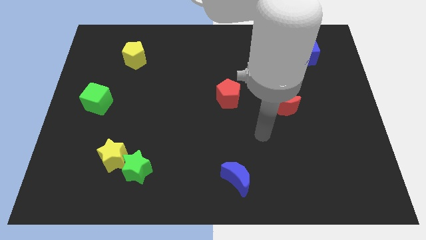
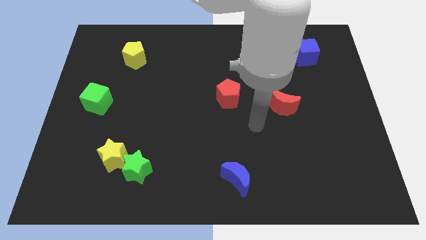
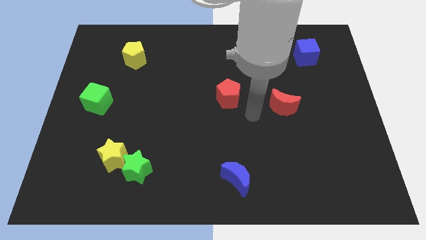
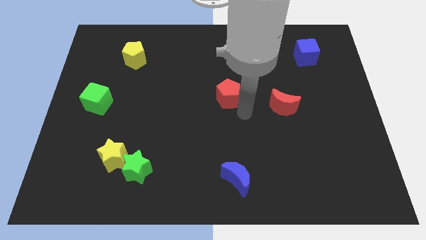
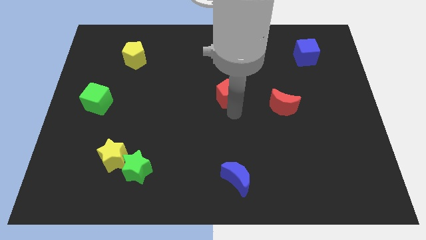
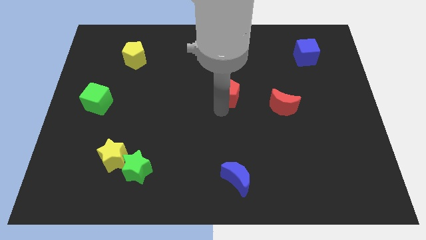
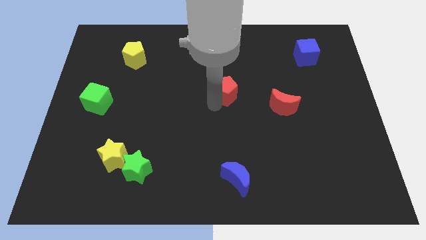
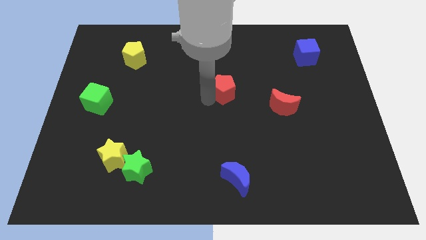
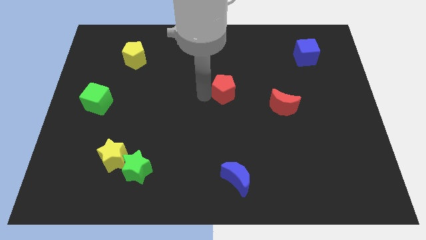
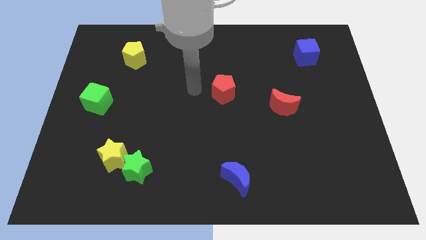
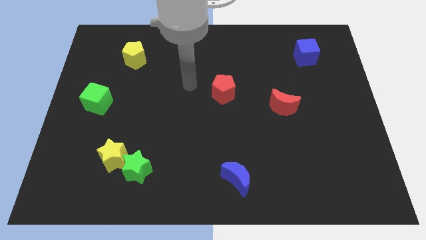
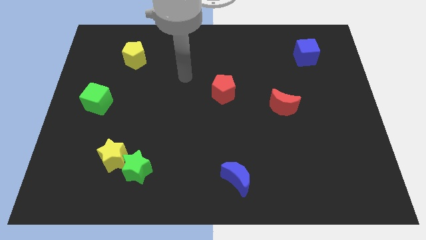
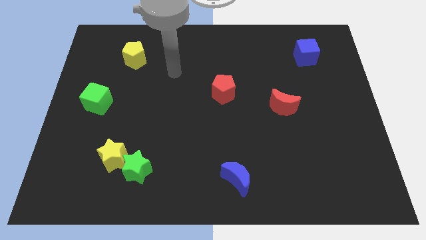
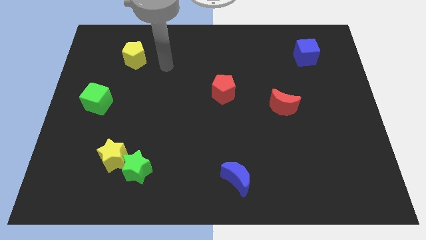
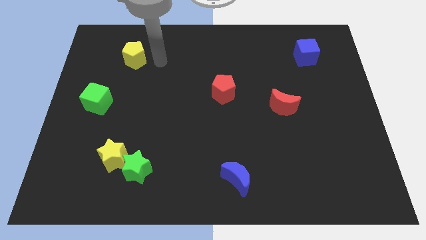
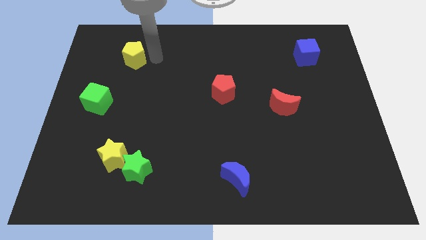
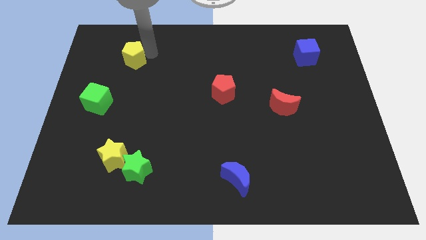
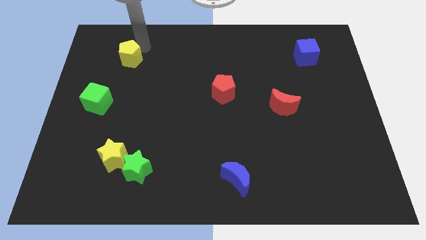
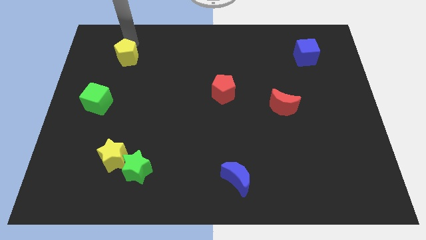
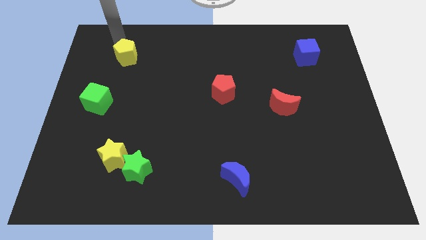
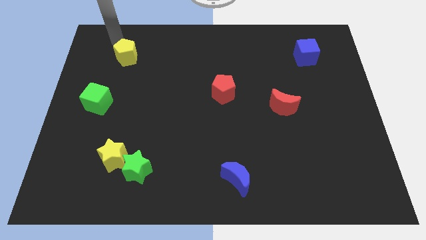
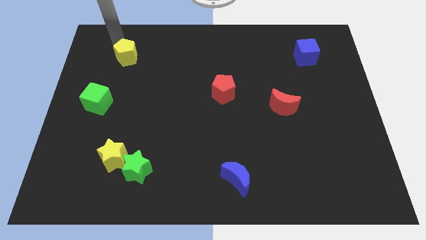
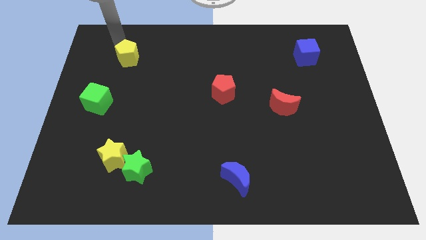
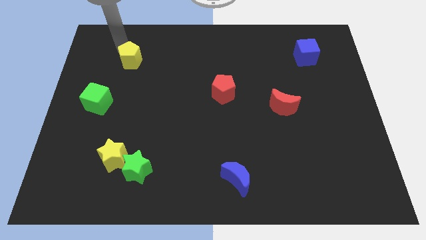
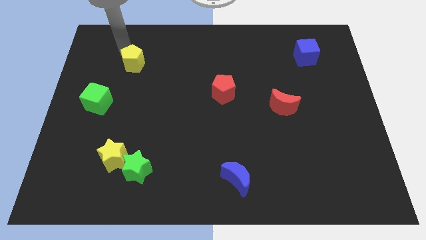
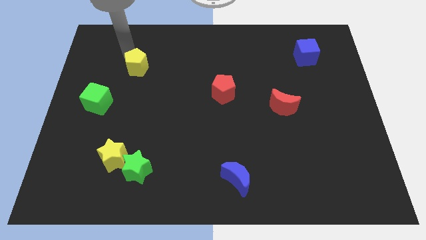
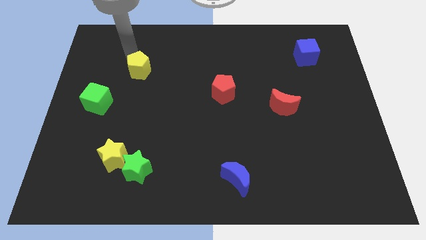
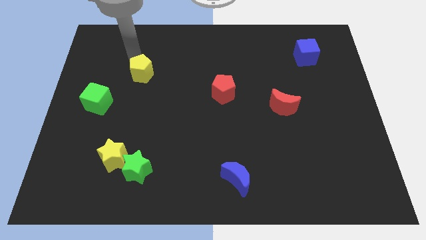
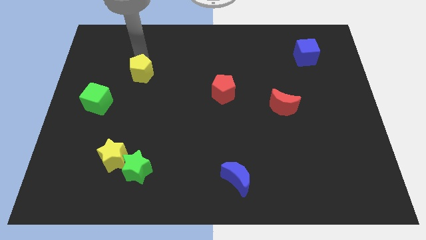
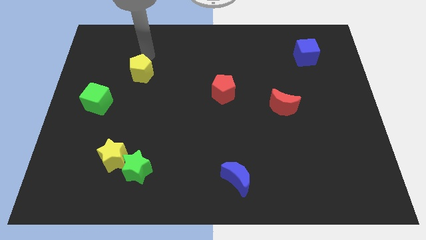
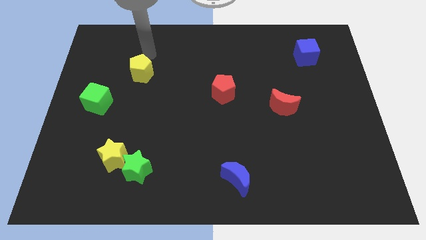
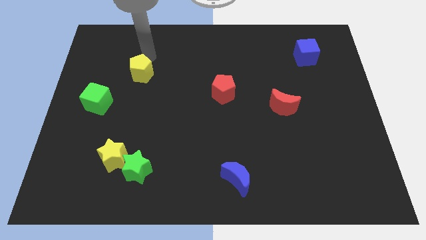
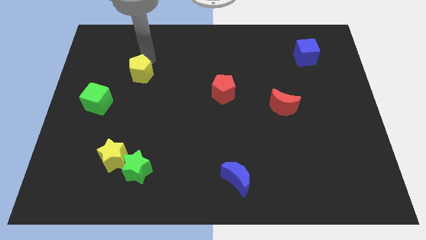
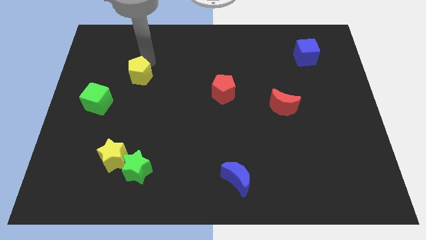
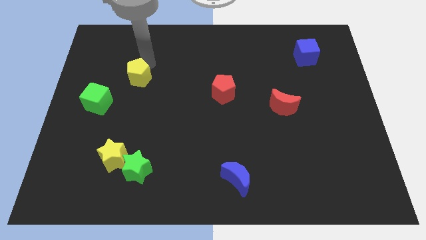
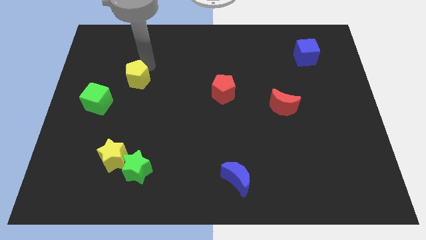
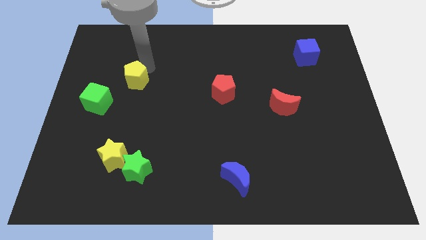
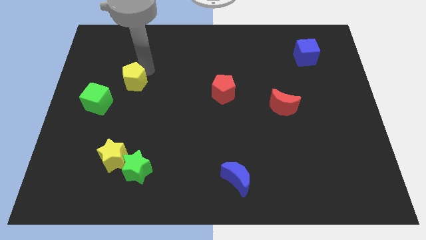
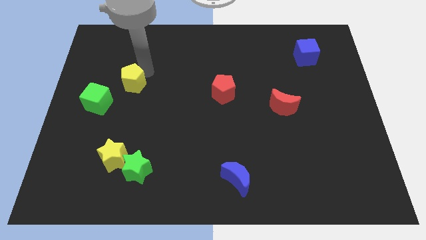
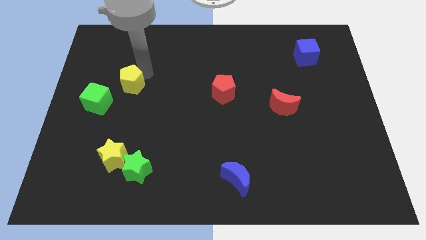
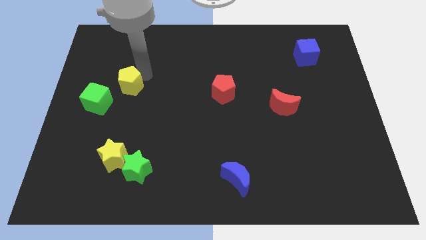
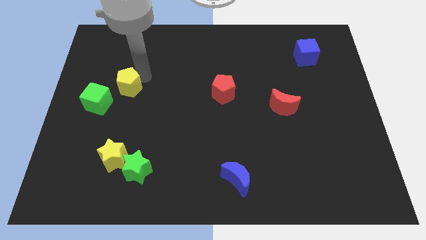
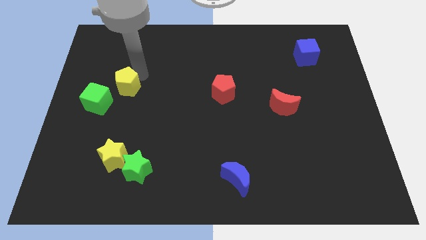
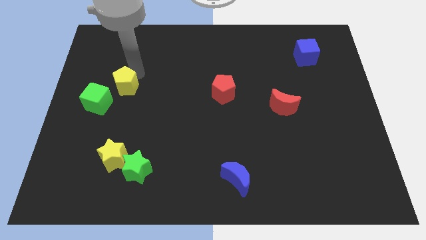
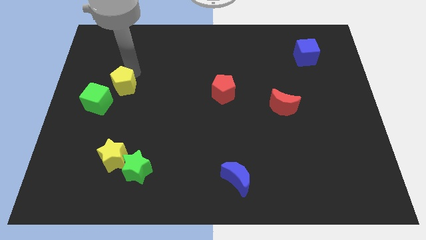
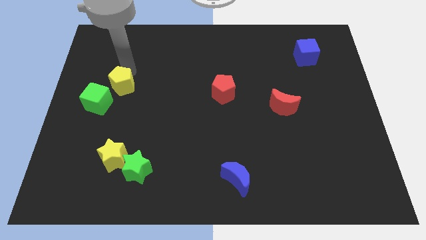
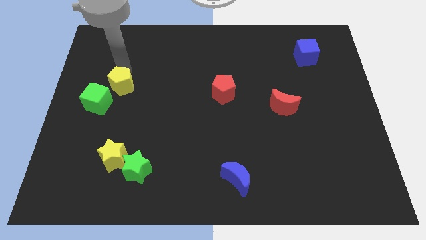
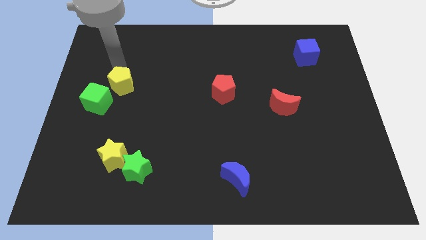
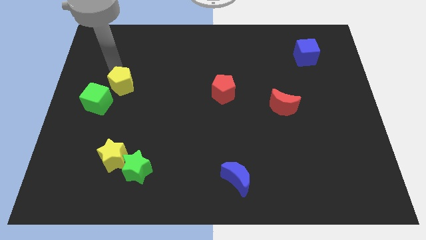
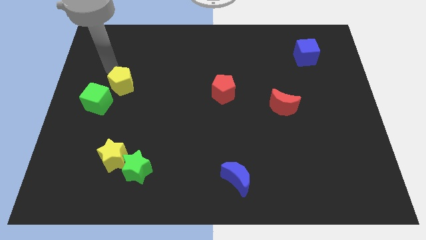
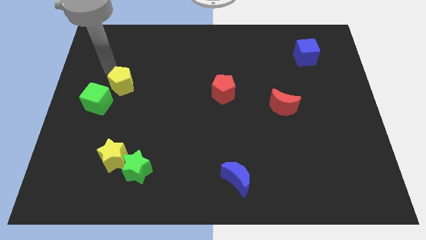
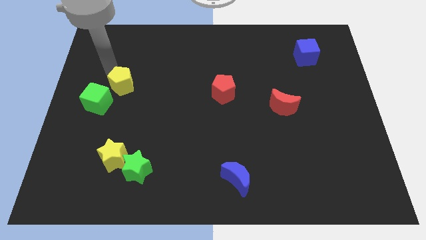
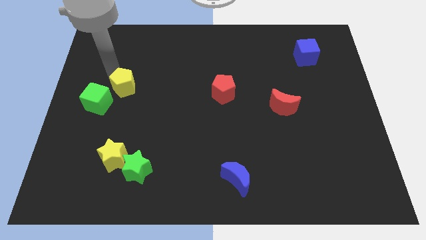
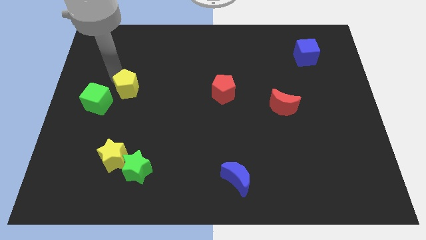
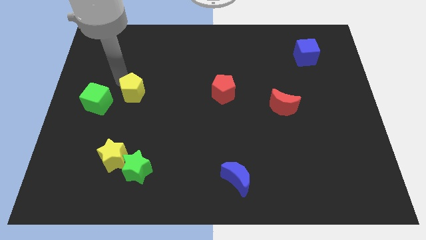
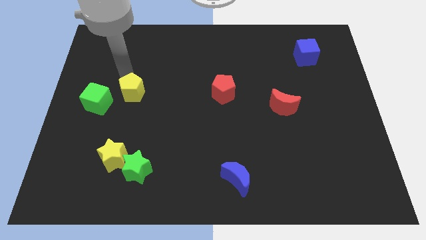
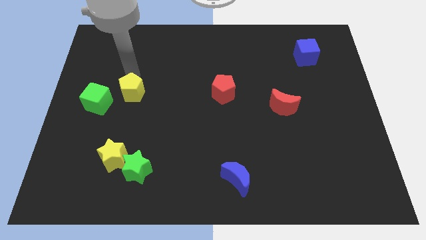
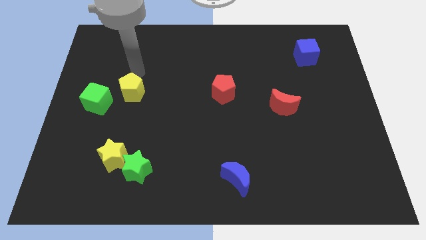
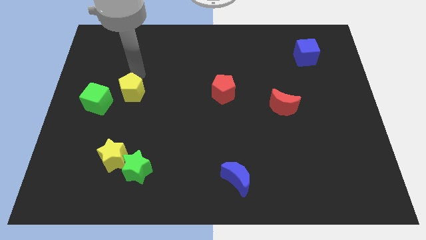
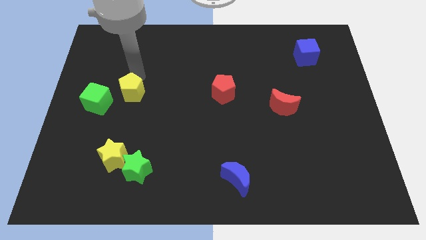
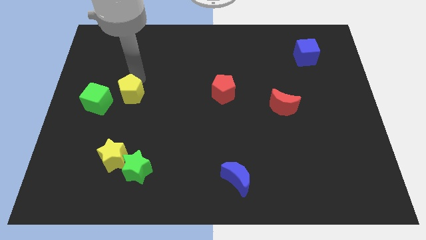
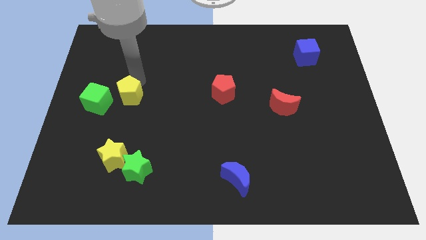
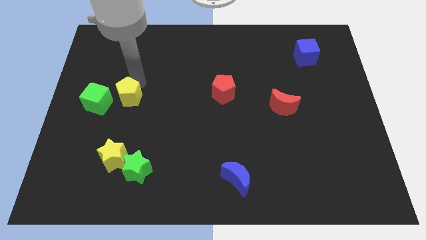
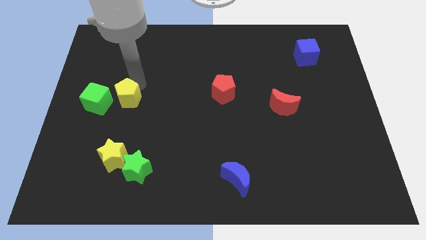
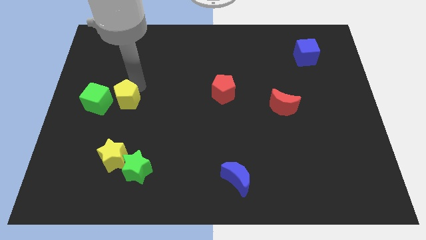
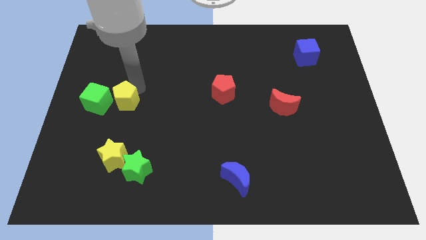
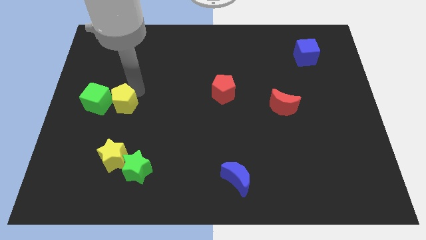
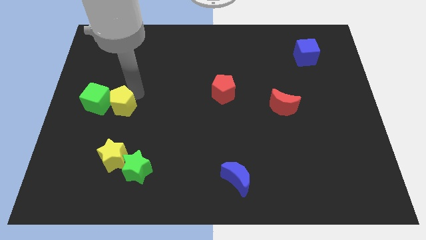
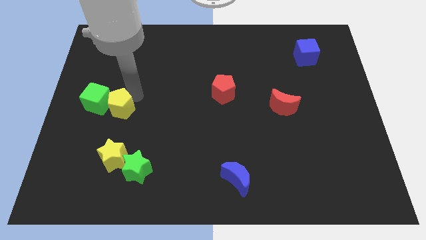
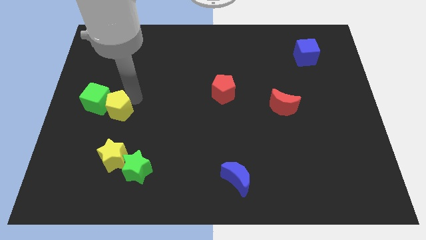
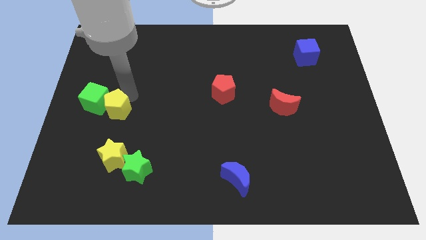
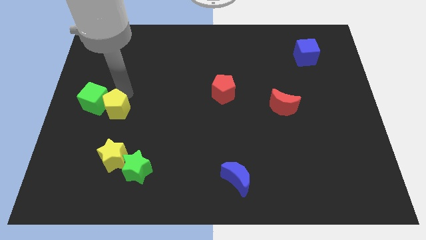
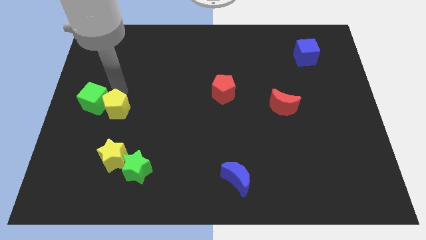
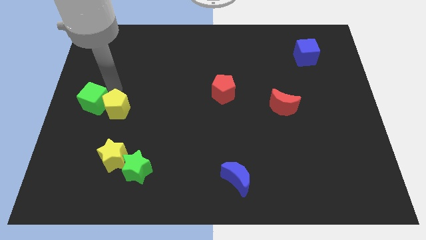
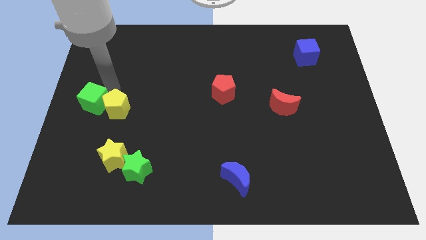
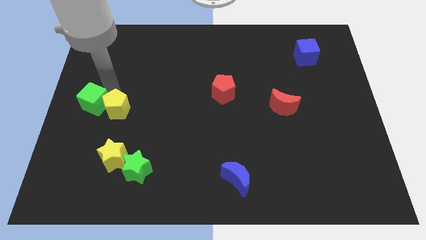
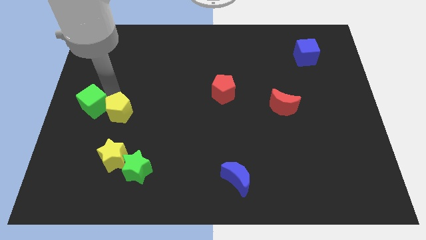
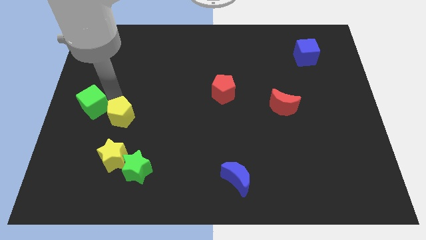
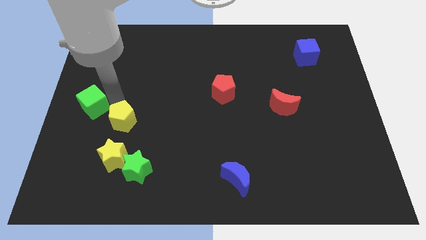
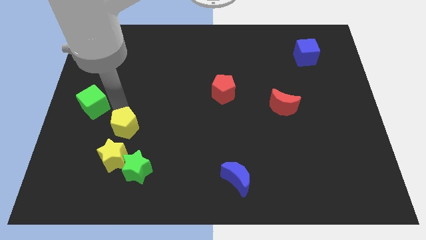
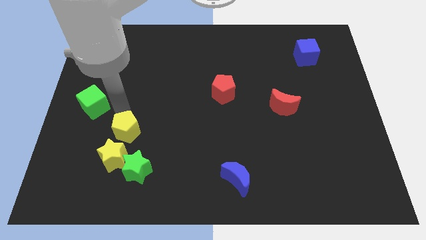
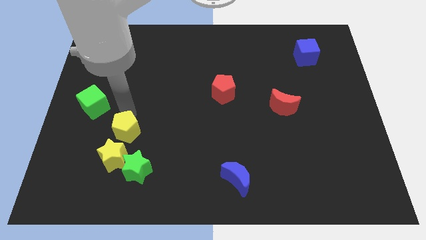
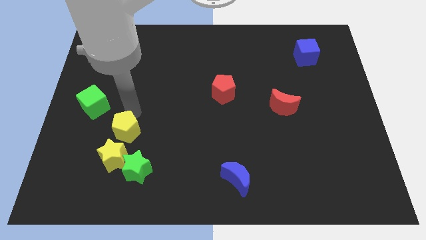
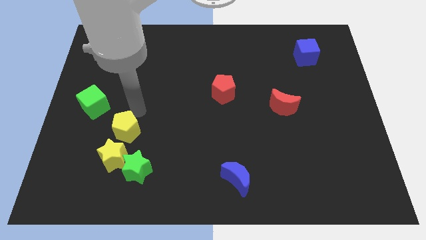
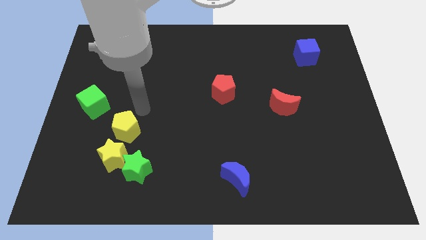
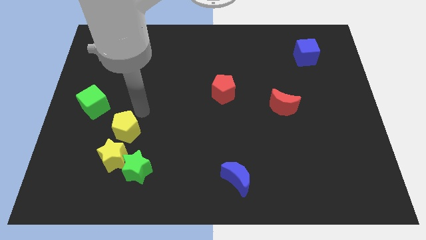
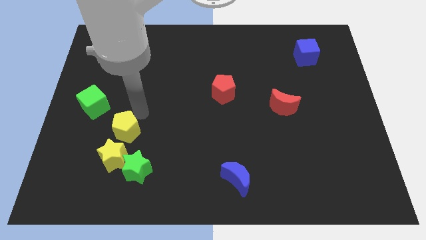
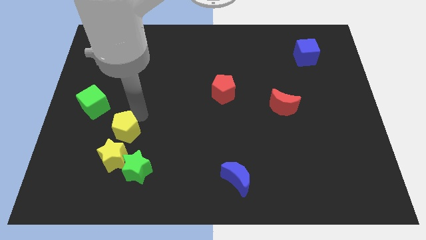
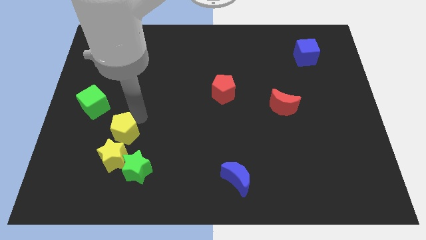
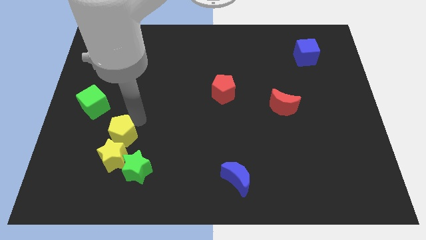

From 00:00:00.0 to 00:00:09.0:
put the yellow pentagon close to the yellow star
